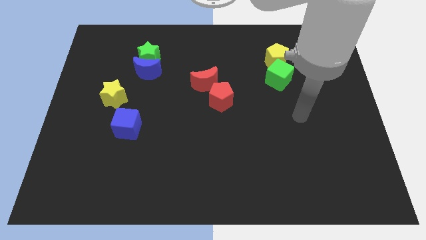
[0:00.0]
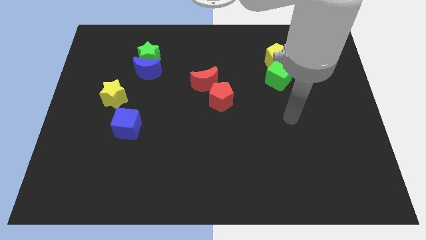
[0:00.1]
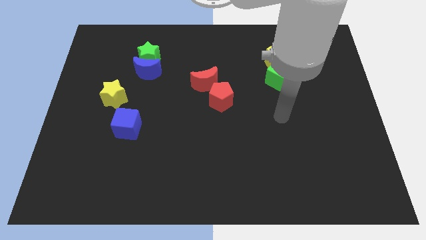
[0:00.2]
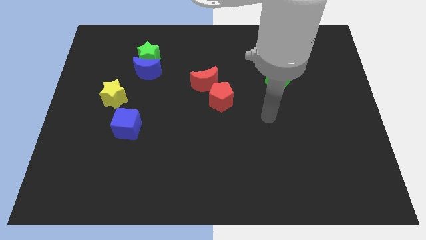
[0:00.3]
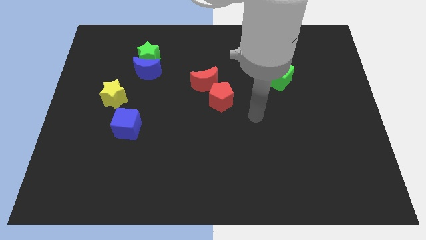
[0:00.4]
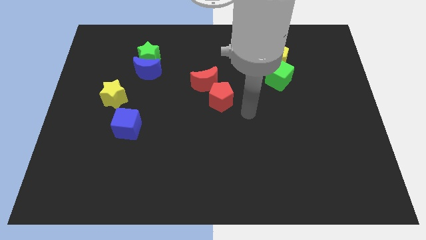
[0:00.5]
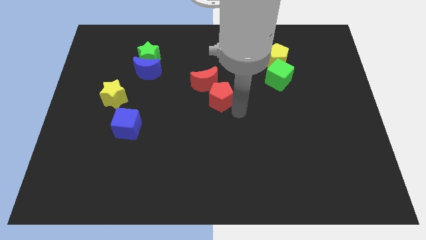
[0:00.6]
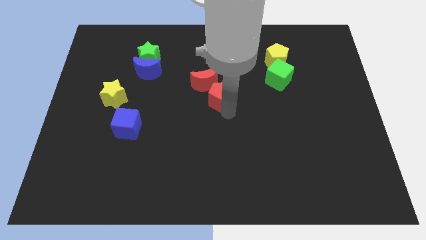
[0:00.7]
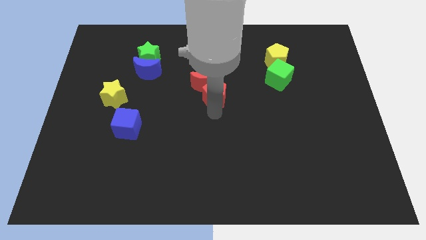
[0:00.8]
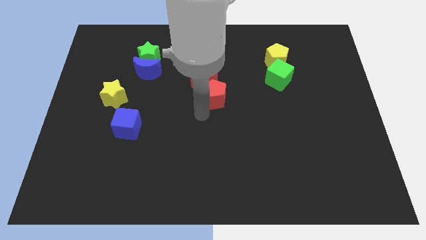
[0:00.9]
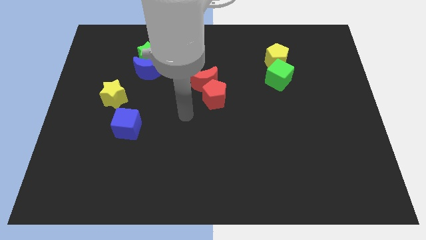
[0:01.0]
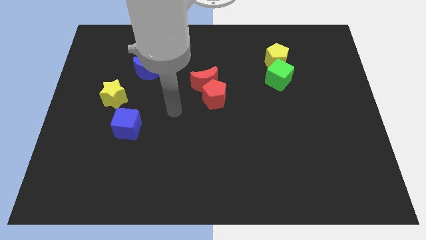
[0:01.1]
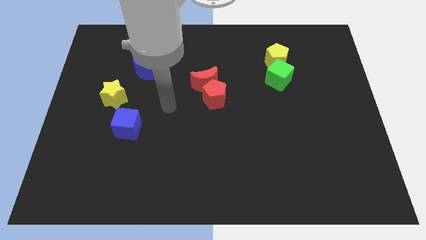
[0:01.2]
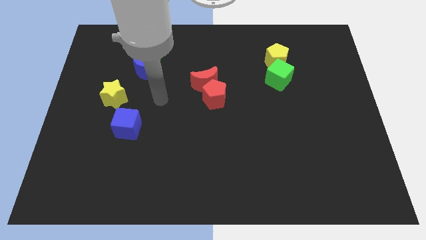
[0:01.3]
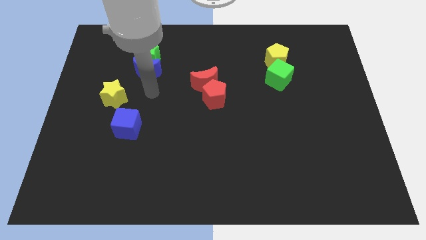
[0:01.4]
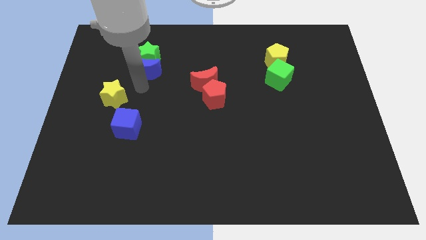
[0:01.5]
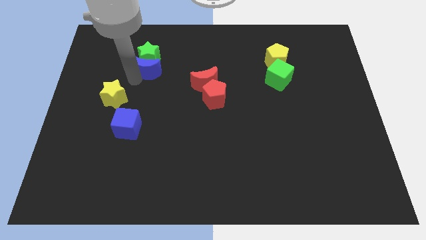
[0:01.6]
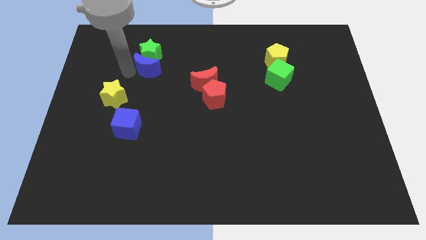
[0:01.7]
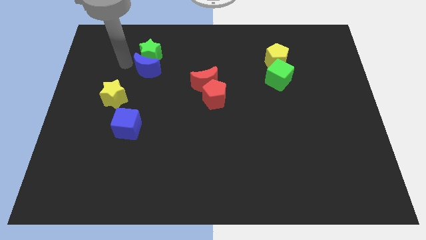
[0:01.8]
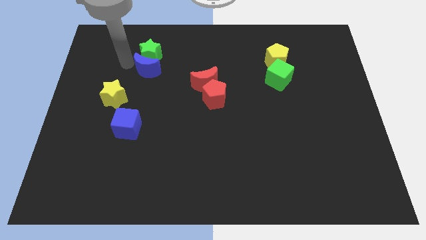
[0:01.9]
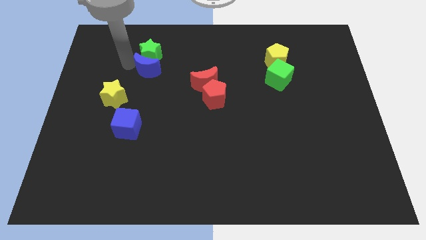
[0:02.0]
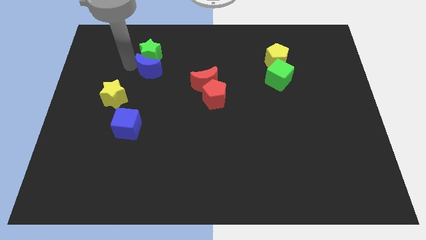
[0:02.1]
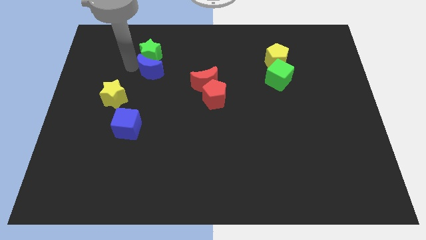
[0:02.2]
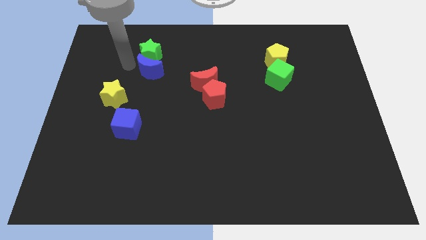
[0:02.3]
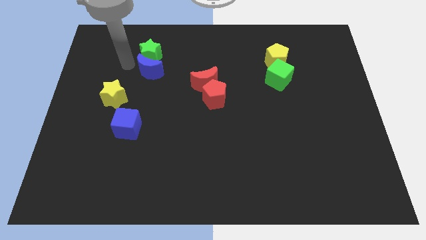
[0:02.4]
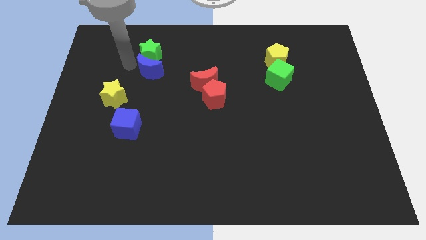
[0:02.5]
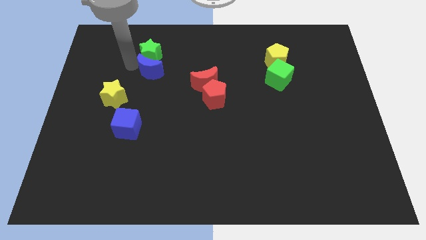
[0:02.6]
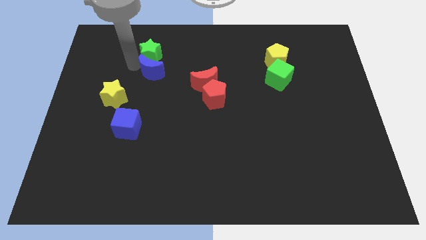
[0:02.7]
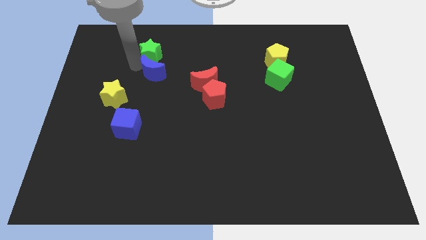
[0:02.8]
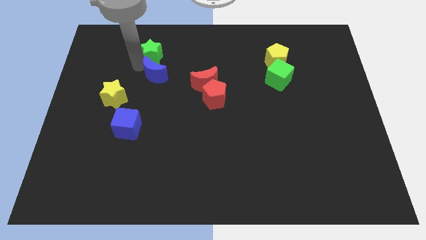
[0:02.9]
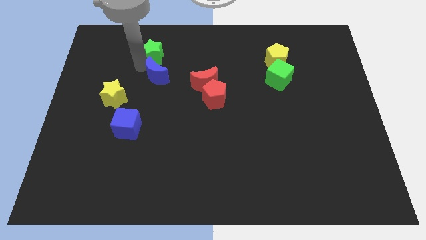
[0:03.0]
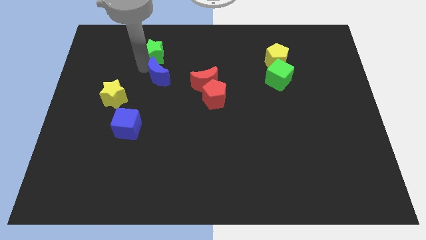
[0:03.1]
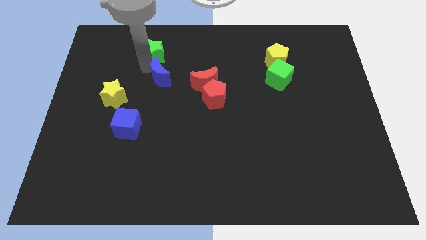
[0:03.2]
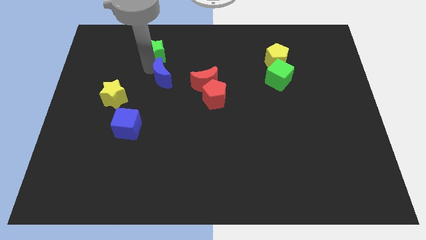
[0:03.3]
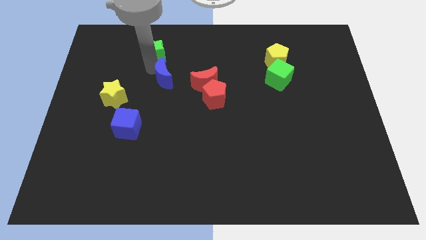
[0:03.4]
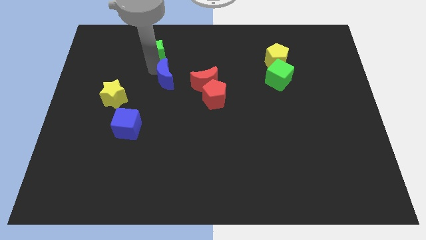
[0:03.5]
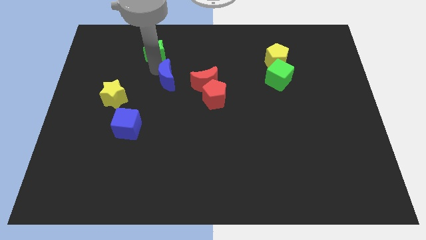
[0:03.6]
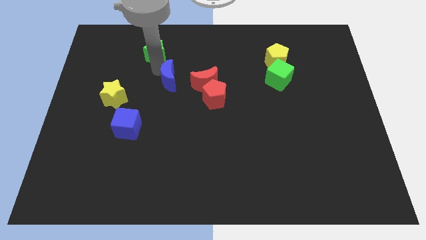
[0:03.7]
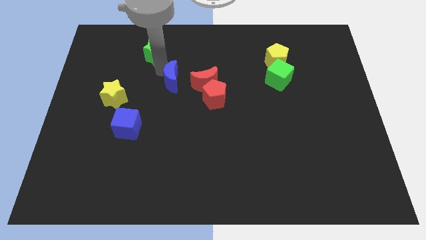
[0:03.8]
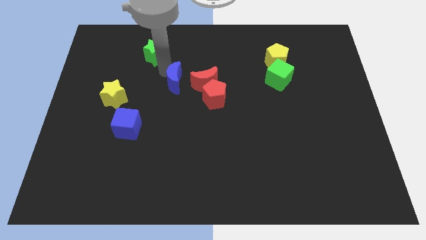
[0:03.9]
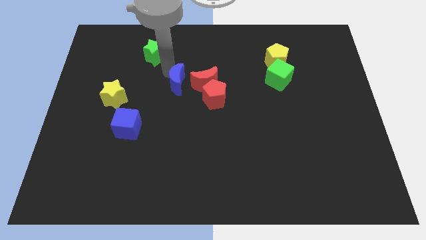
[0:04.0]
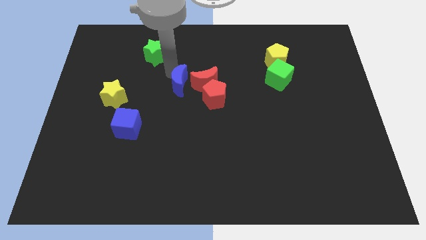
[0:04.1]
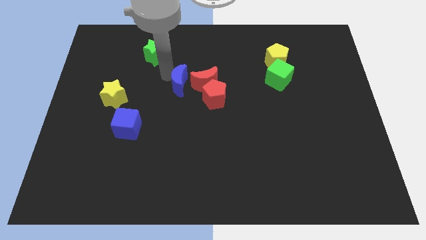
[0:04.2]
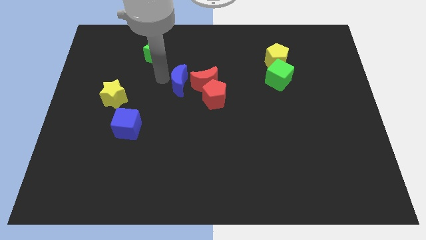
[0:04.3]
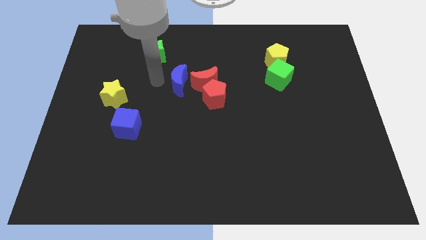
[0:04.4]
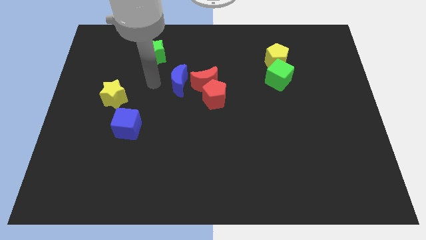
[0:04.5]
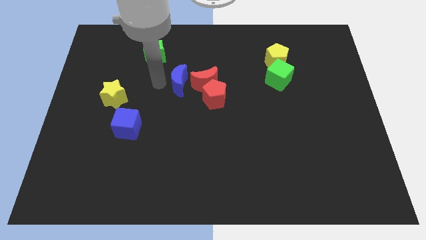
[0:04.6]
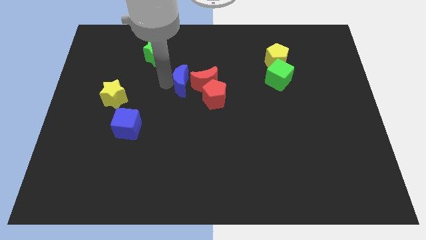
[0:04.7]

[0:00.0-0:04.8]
slide the blue moon next to the red moon

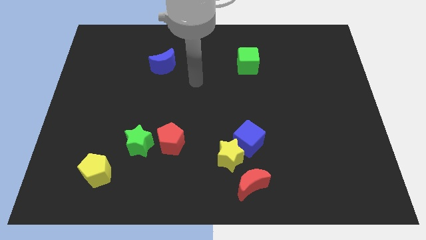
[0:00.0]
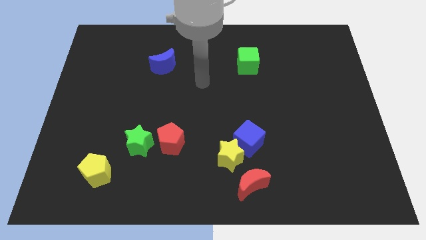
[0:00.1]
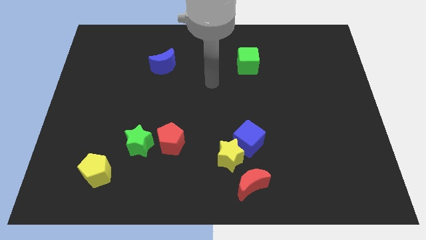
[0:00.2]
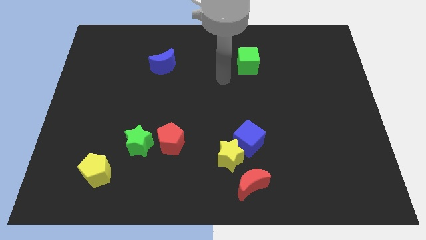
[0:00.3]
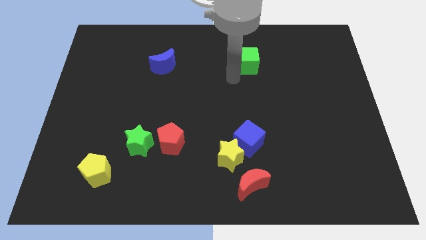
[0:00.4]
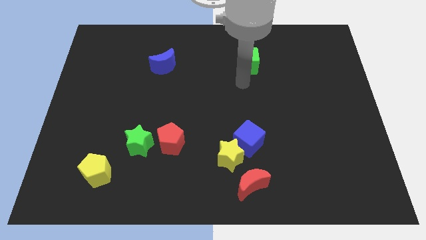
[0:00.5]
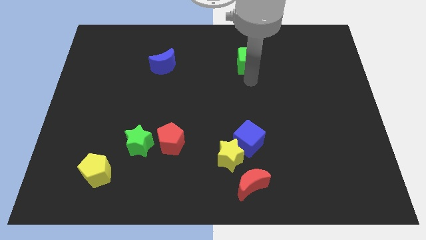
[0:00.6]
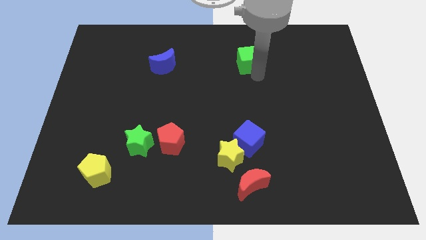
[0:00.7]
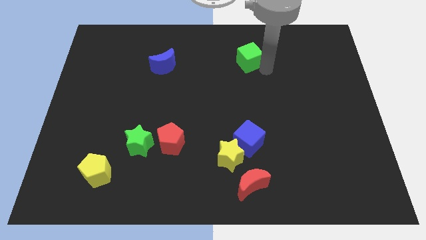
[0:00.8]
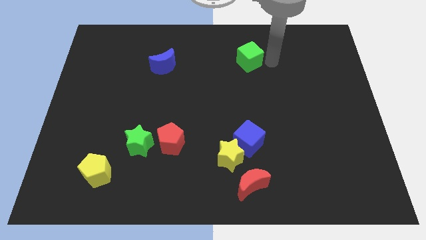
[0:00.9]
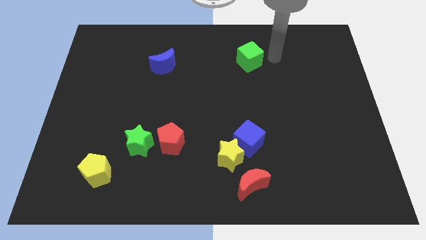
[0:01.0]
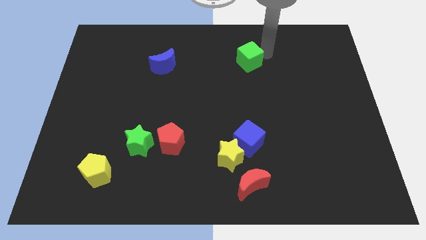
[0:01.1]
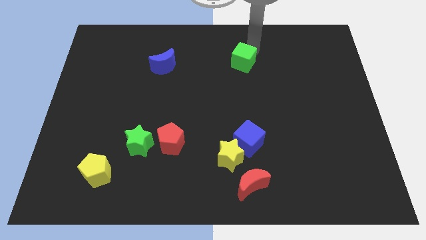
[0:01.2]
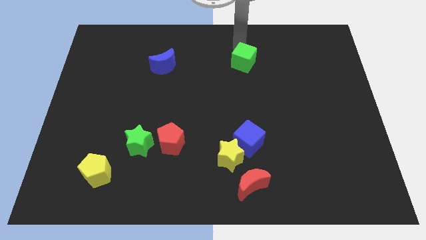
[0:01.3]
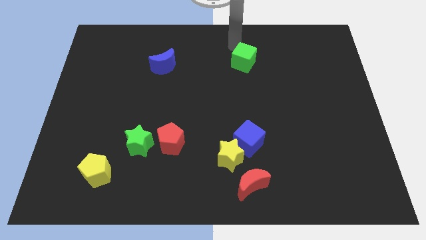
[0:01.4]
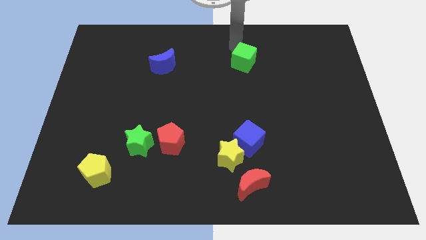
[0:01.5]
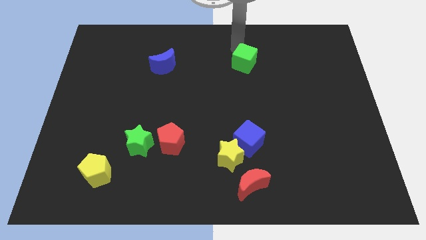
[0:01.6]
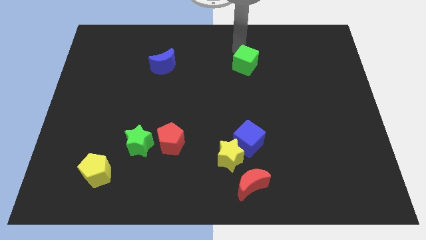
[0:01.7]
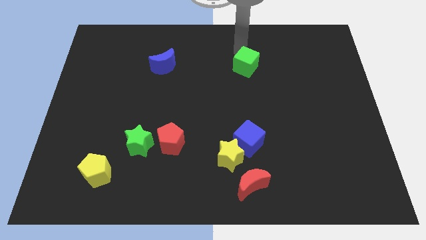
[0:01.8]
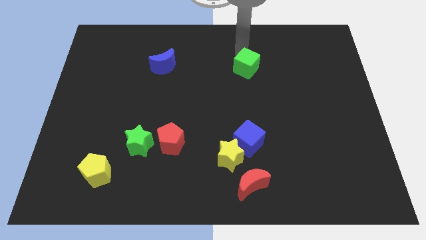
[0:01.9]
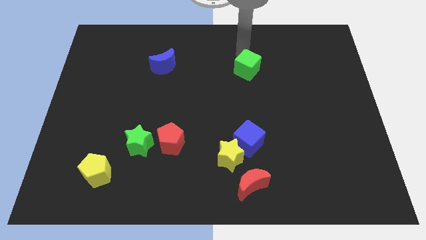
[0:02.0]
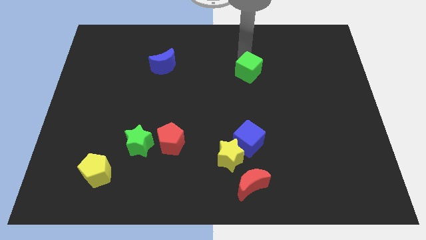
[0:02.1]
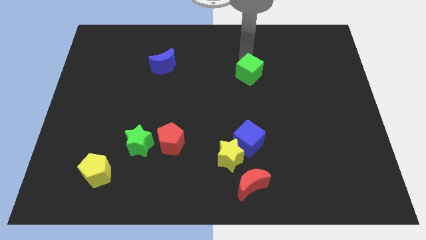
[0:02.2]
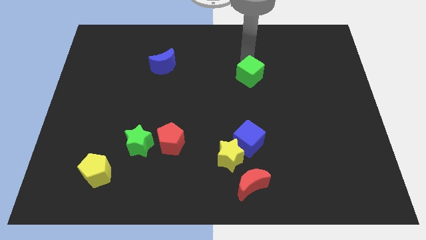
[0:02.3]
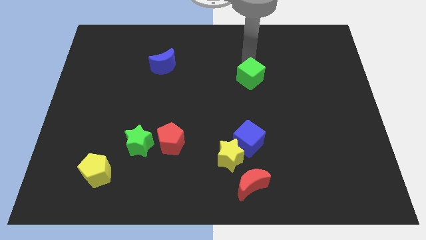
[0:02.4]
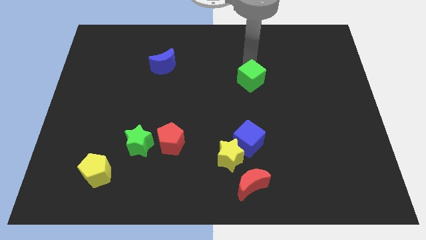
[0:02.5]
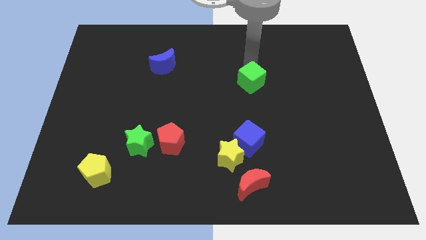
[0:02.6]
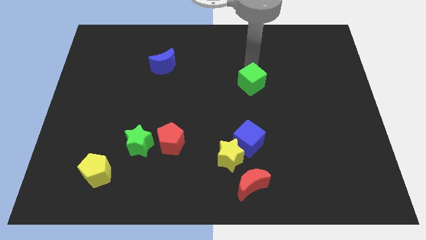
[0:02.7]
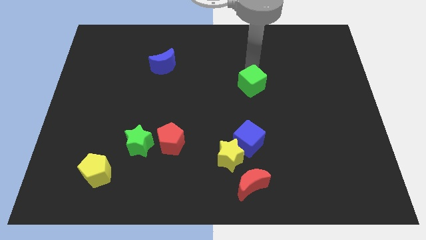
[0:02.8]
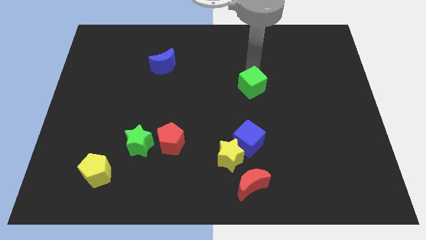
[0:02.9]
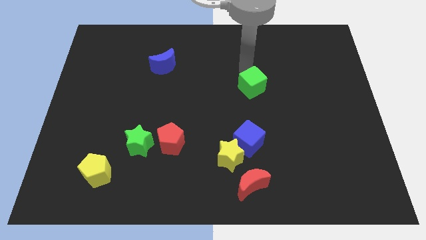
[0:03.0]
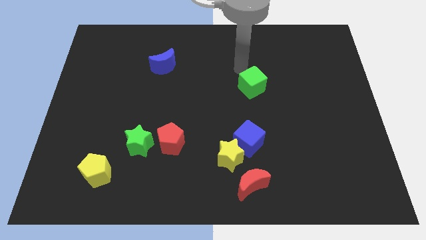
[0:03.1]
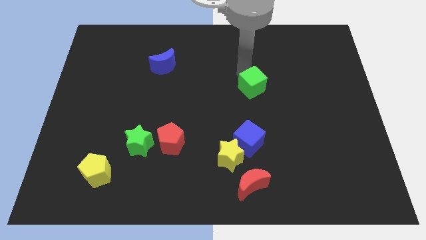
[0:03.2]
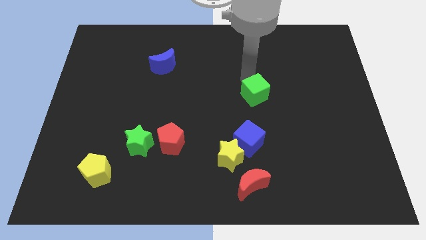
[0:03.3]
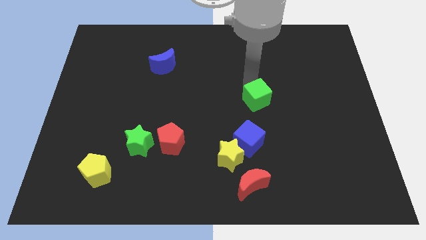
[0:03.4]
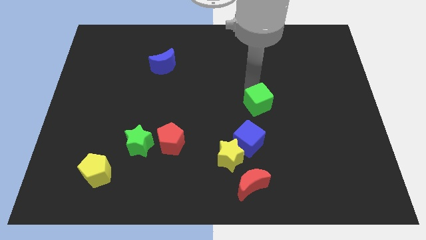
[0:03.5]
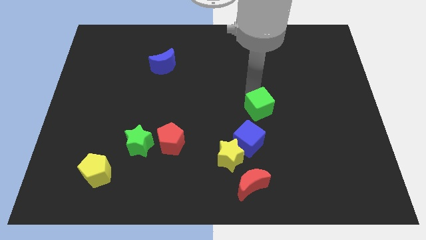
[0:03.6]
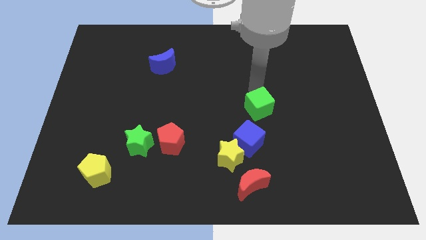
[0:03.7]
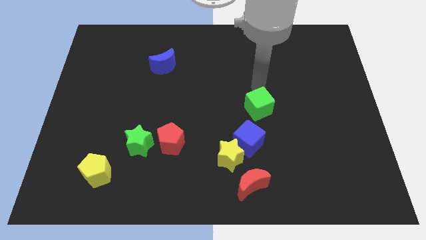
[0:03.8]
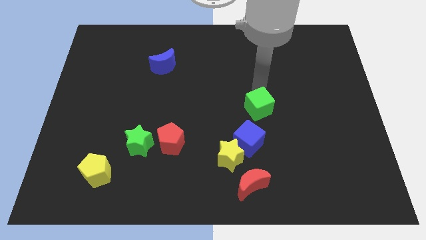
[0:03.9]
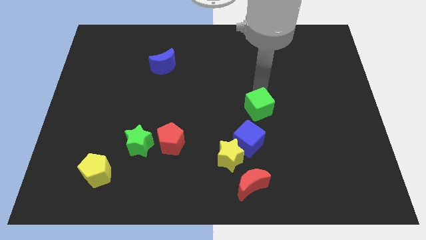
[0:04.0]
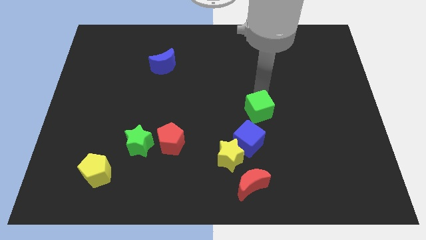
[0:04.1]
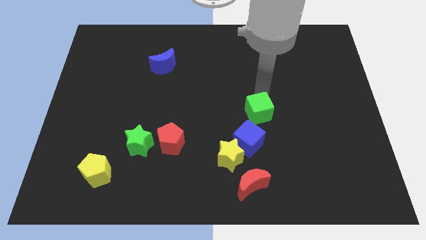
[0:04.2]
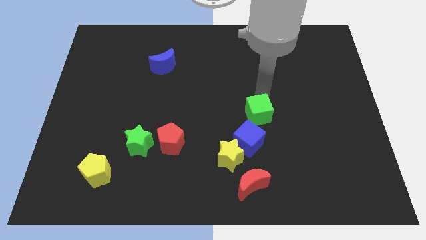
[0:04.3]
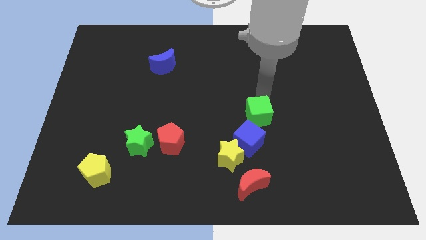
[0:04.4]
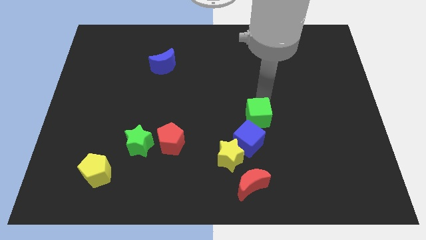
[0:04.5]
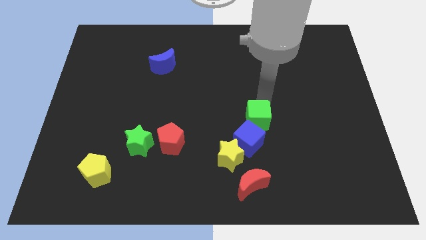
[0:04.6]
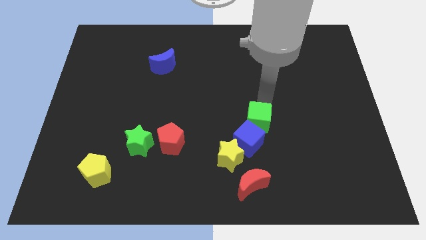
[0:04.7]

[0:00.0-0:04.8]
put the green cube to the blue cube
